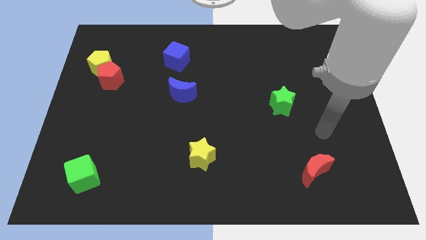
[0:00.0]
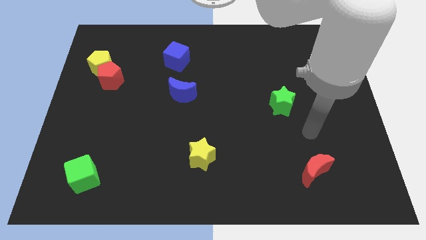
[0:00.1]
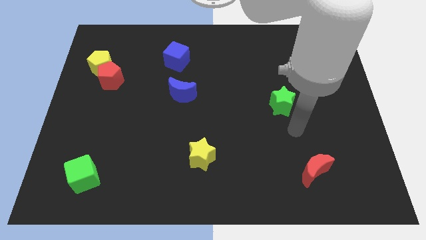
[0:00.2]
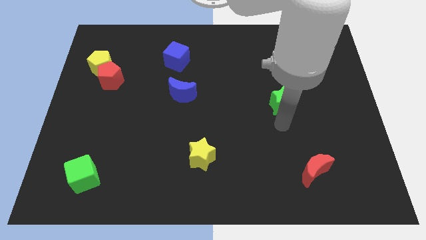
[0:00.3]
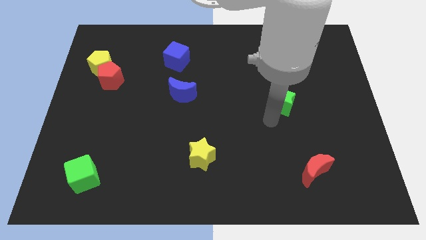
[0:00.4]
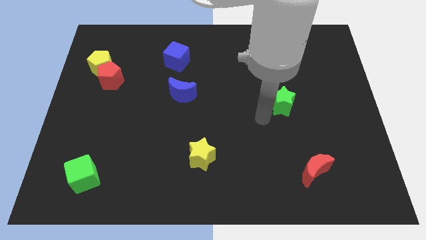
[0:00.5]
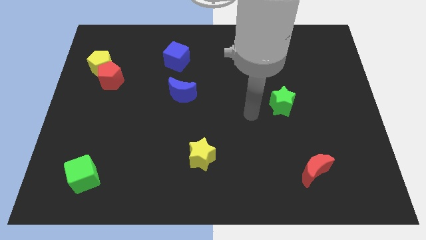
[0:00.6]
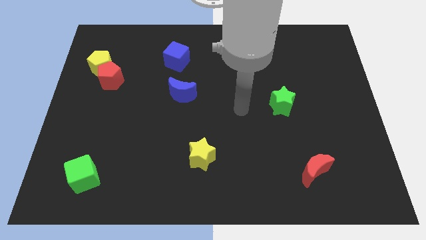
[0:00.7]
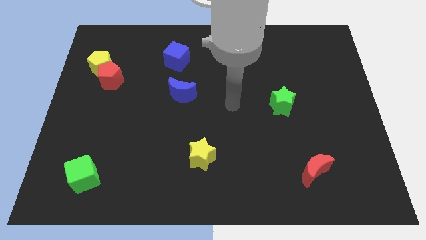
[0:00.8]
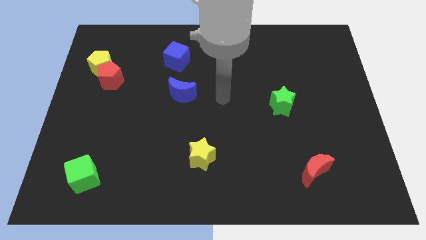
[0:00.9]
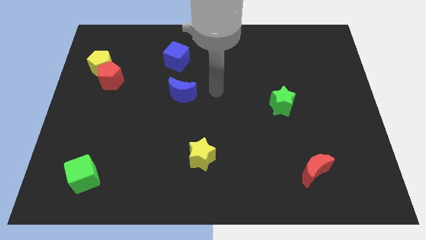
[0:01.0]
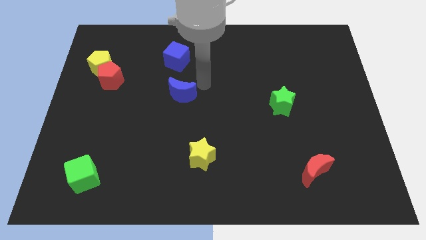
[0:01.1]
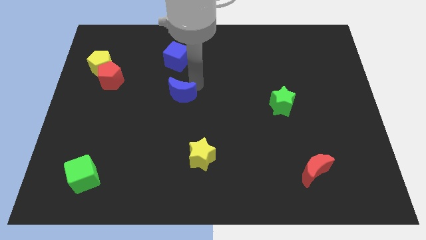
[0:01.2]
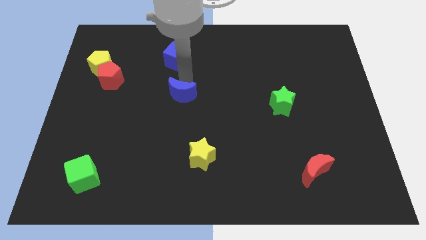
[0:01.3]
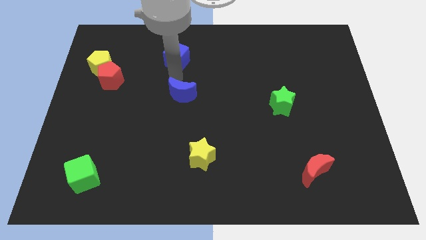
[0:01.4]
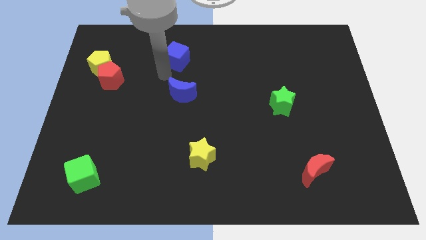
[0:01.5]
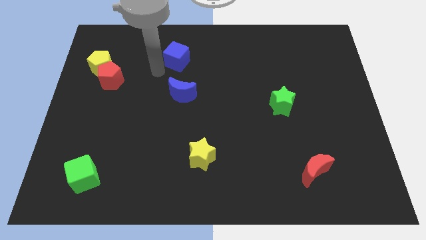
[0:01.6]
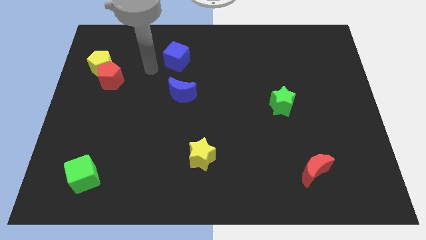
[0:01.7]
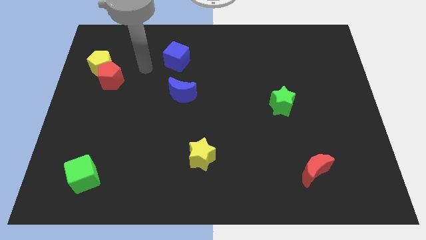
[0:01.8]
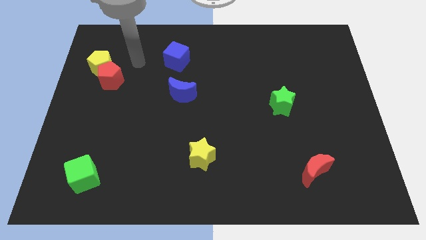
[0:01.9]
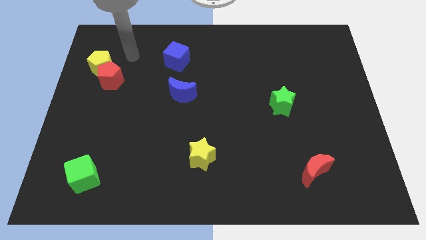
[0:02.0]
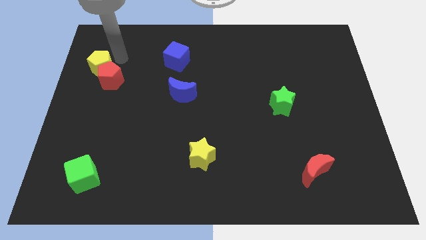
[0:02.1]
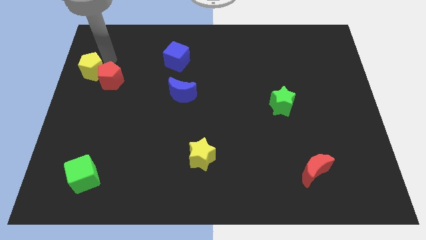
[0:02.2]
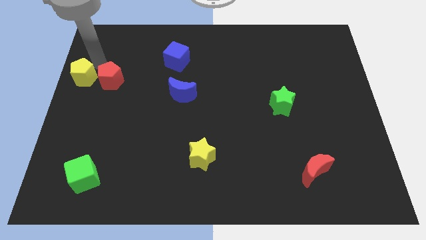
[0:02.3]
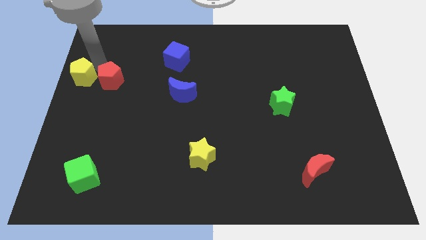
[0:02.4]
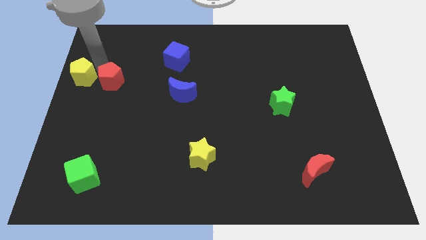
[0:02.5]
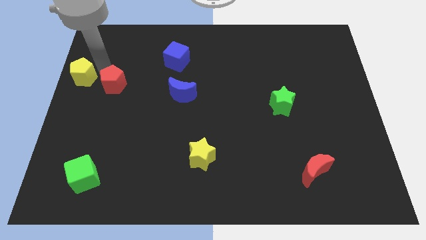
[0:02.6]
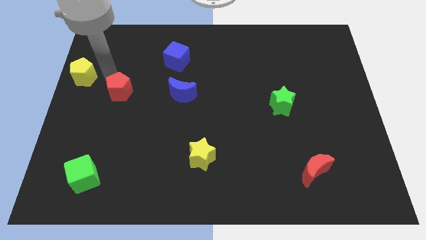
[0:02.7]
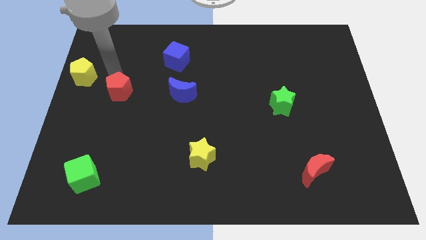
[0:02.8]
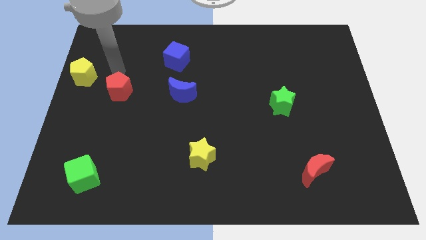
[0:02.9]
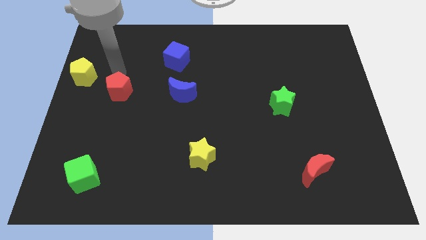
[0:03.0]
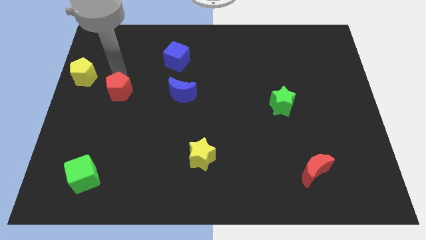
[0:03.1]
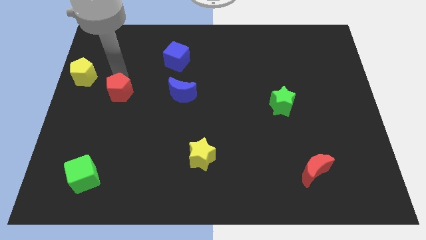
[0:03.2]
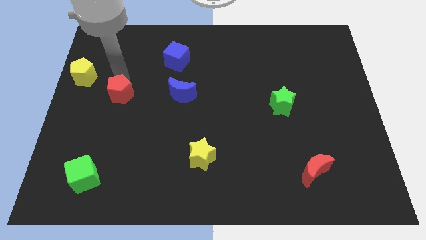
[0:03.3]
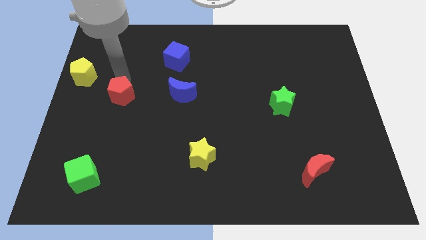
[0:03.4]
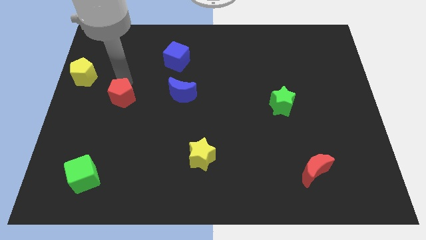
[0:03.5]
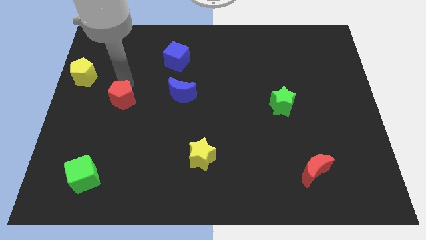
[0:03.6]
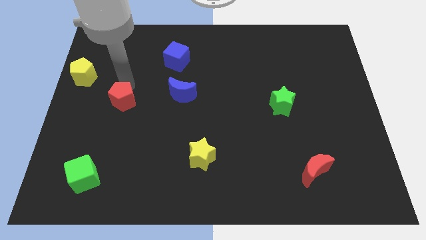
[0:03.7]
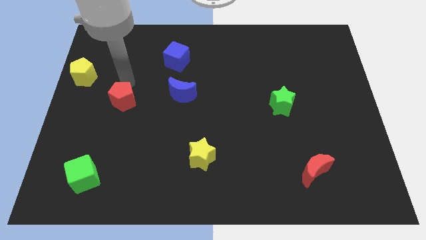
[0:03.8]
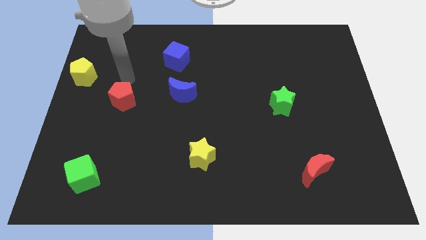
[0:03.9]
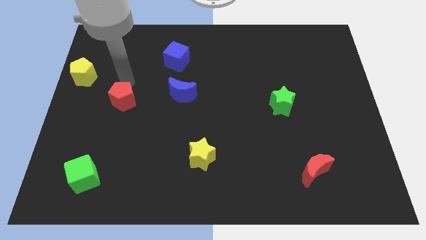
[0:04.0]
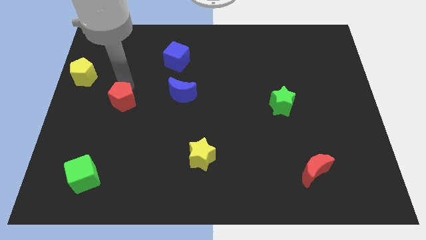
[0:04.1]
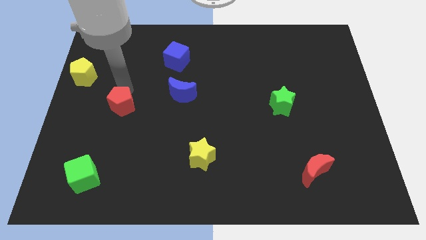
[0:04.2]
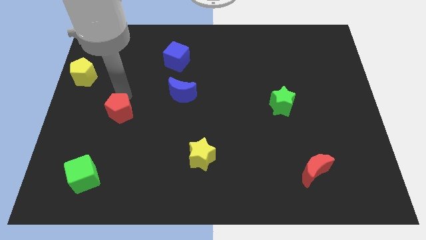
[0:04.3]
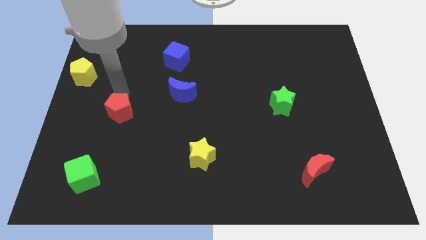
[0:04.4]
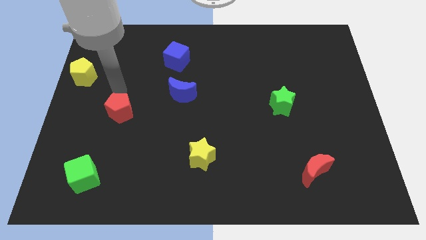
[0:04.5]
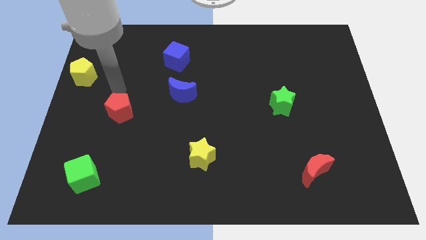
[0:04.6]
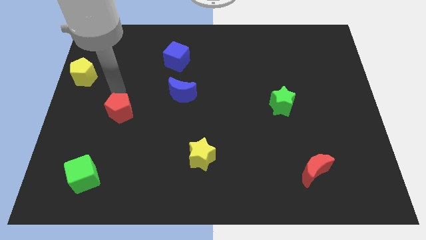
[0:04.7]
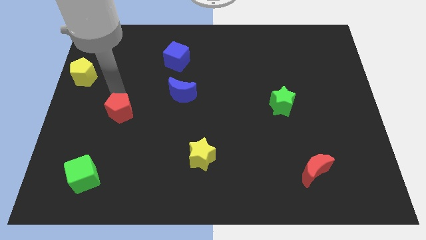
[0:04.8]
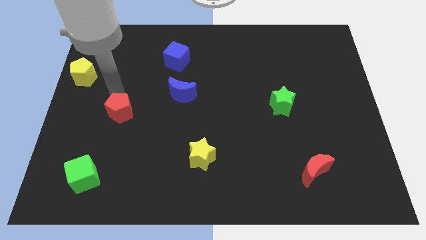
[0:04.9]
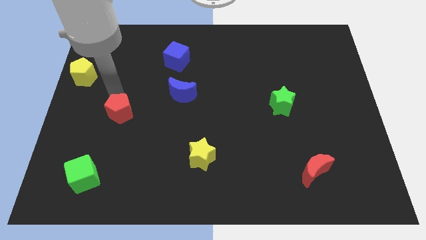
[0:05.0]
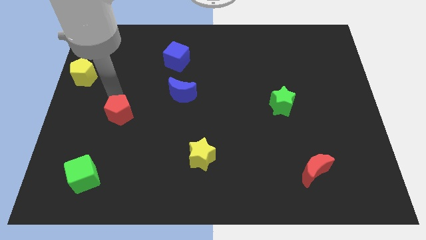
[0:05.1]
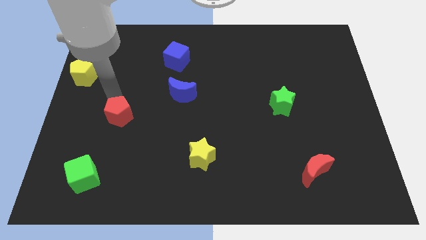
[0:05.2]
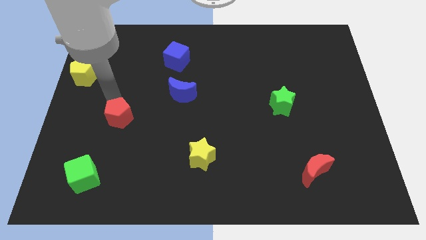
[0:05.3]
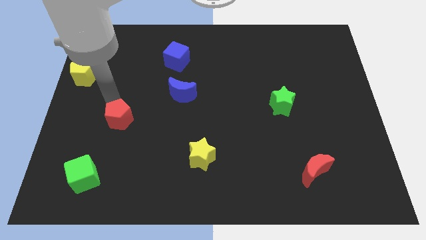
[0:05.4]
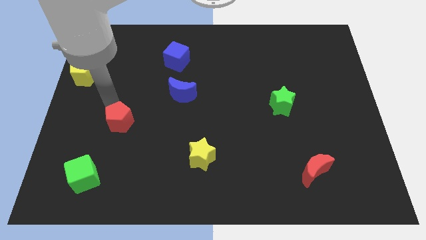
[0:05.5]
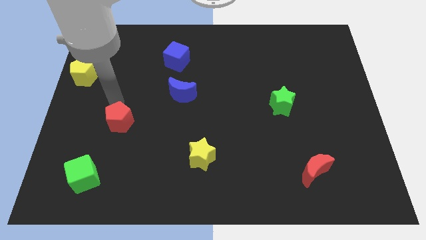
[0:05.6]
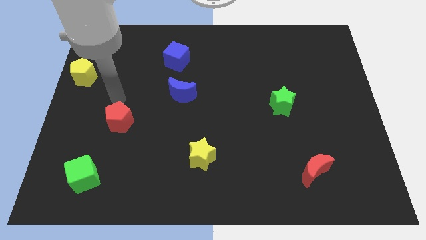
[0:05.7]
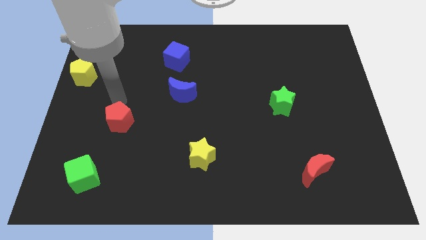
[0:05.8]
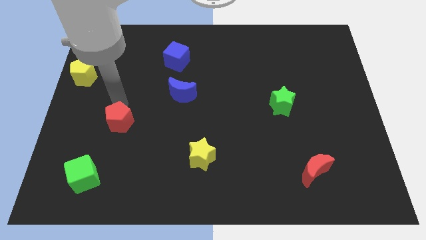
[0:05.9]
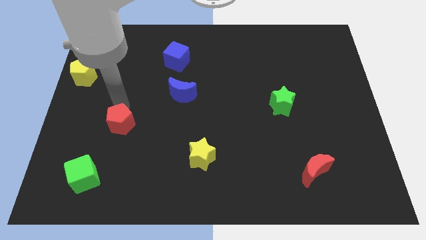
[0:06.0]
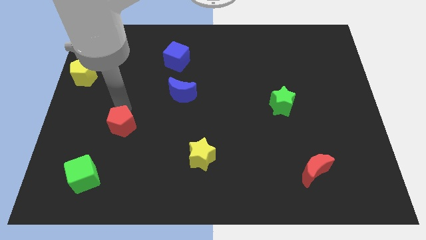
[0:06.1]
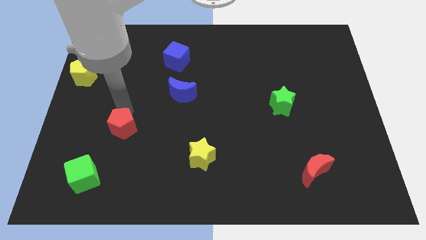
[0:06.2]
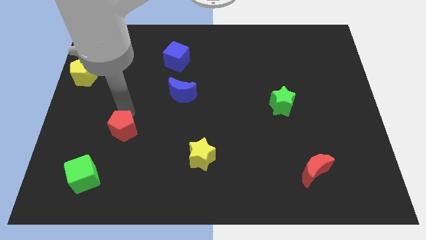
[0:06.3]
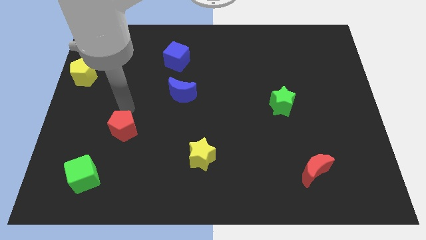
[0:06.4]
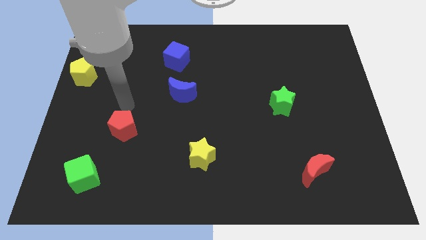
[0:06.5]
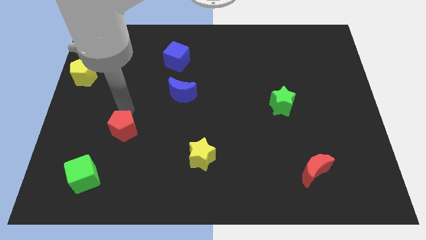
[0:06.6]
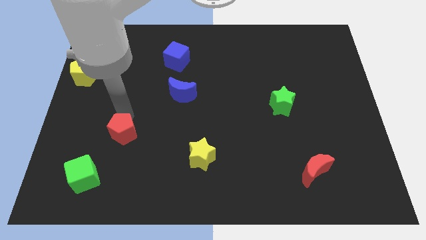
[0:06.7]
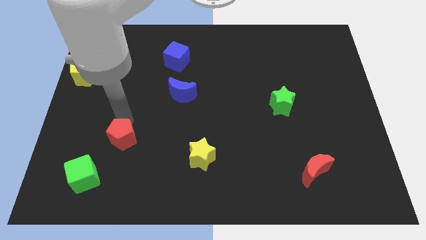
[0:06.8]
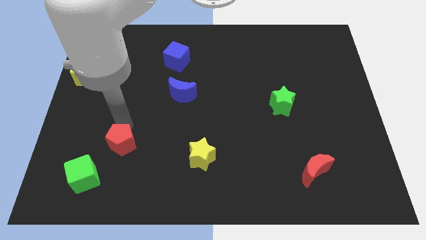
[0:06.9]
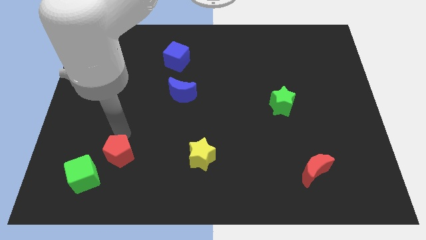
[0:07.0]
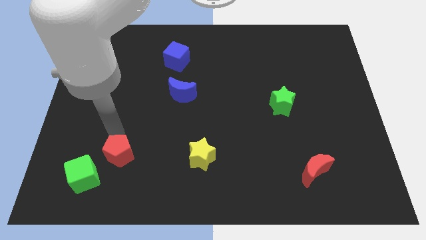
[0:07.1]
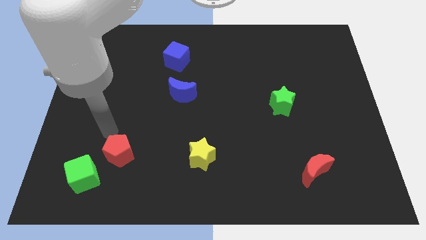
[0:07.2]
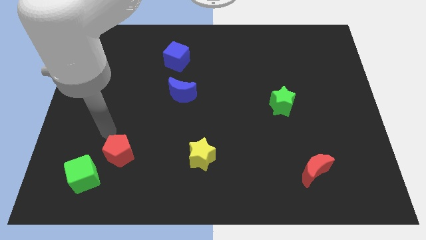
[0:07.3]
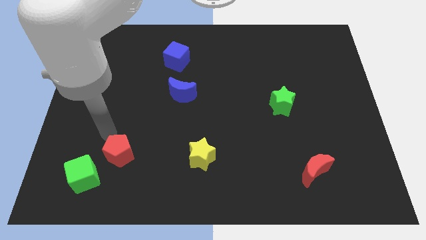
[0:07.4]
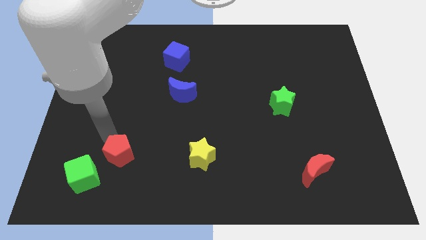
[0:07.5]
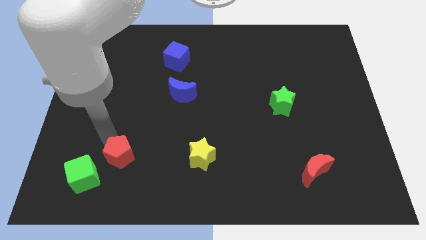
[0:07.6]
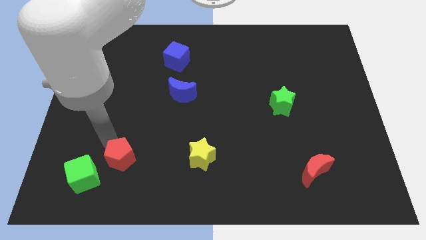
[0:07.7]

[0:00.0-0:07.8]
put the red pentagon right of the green cube
